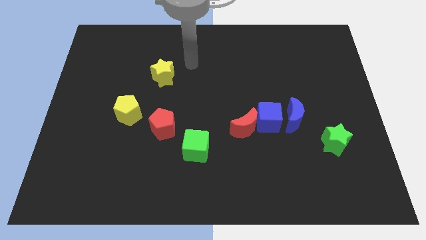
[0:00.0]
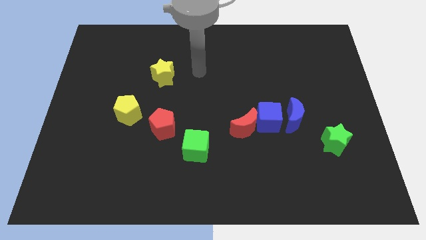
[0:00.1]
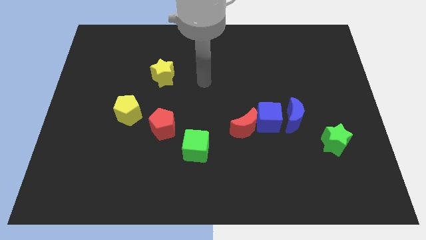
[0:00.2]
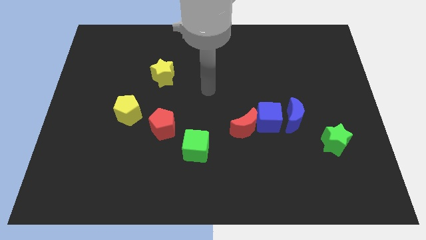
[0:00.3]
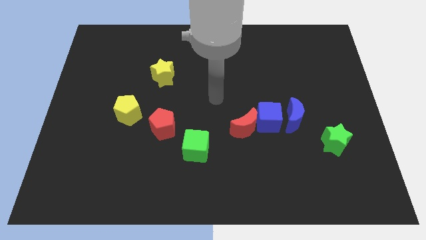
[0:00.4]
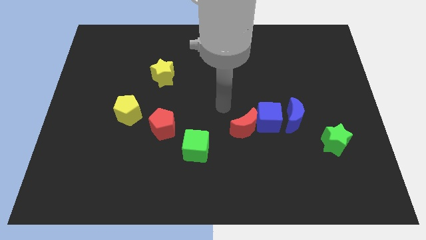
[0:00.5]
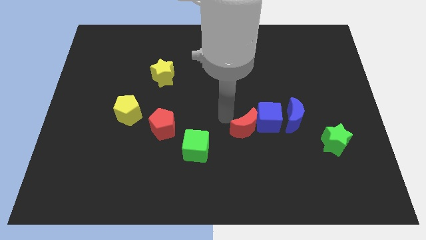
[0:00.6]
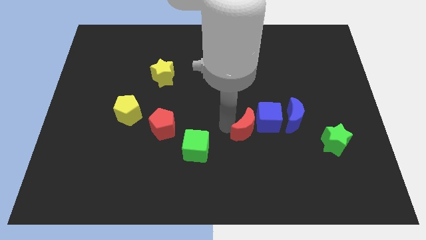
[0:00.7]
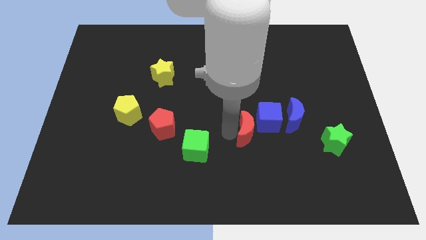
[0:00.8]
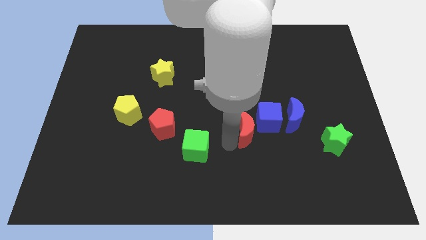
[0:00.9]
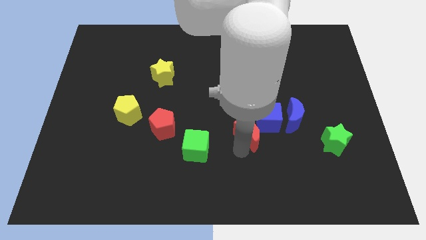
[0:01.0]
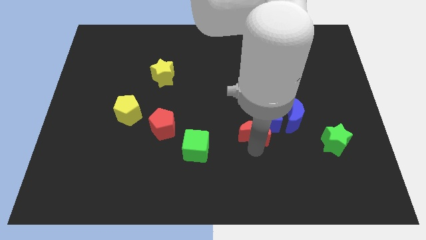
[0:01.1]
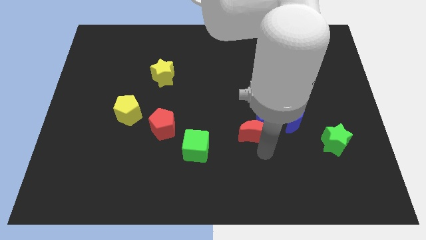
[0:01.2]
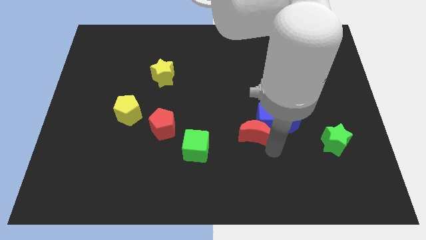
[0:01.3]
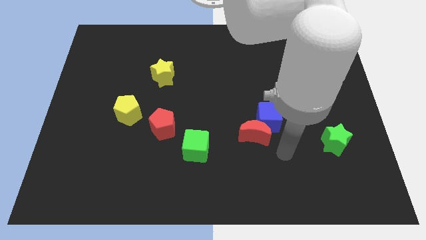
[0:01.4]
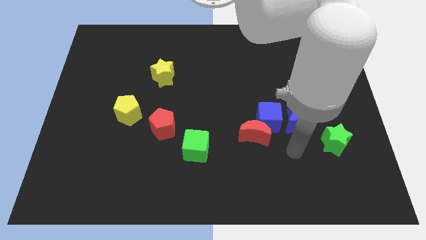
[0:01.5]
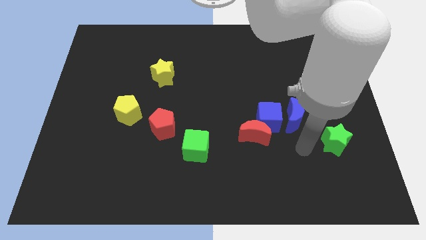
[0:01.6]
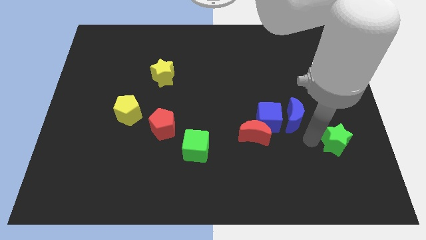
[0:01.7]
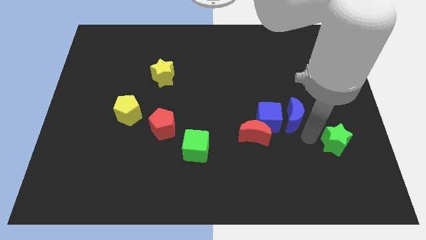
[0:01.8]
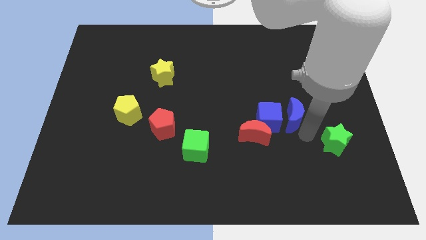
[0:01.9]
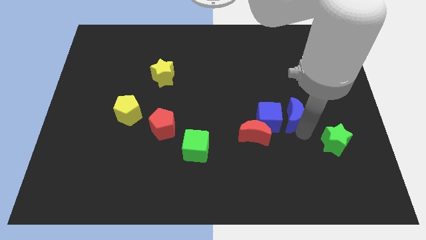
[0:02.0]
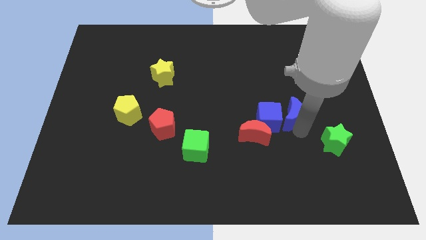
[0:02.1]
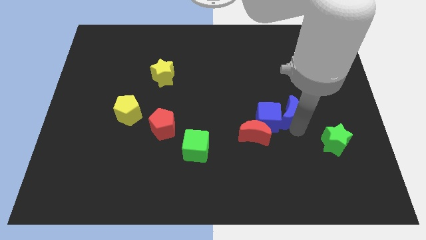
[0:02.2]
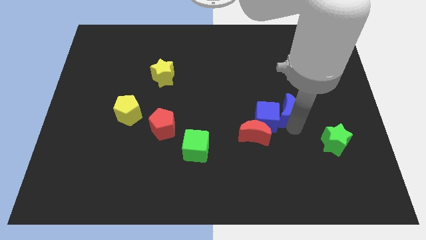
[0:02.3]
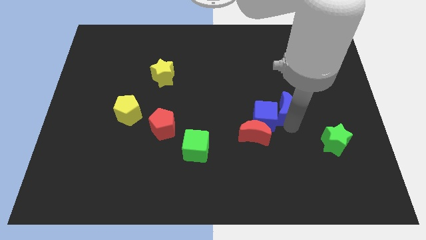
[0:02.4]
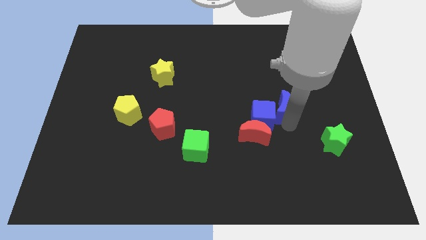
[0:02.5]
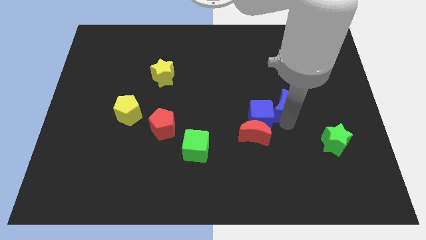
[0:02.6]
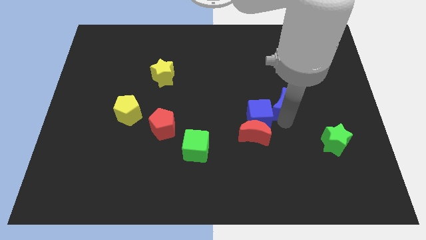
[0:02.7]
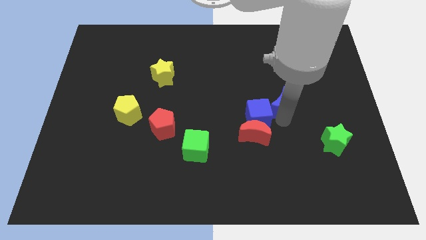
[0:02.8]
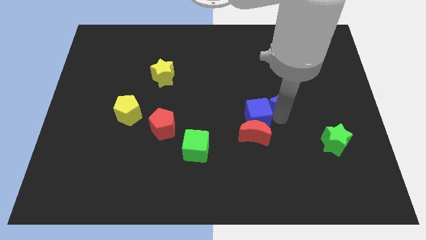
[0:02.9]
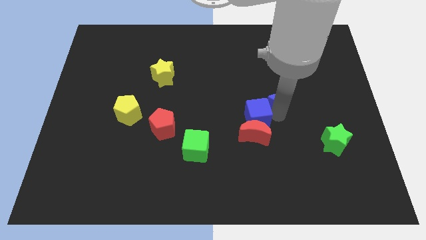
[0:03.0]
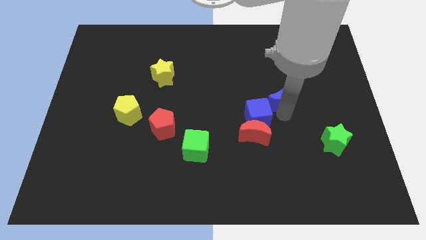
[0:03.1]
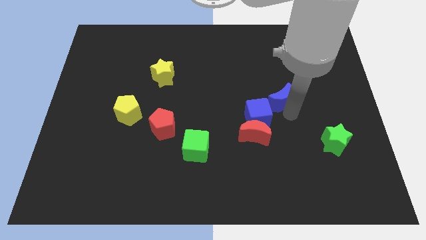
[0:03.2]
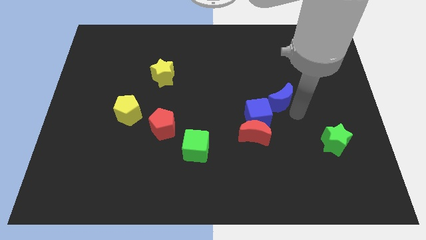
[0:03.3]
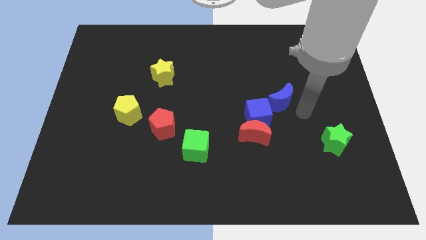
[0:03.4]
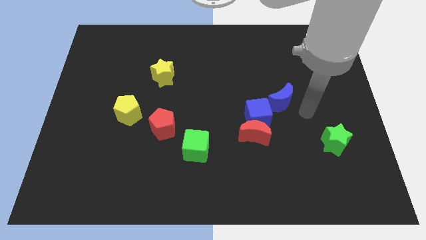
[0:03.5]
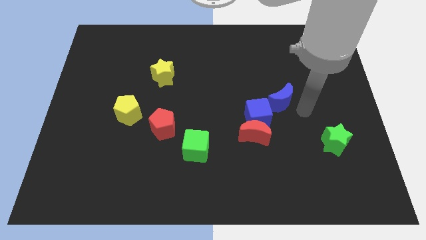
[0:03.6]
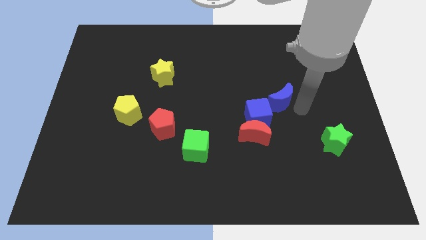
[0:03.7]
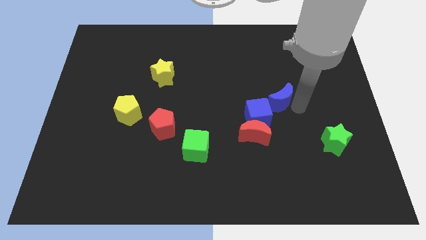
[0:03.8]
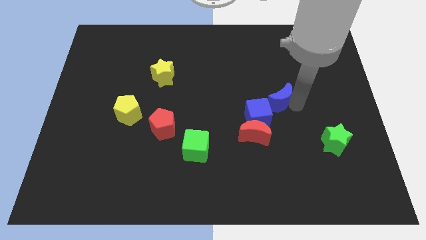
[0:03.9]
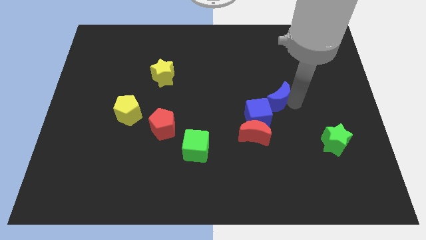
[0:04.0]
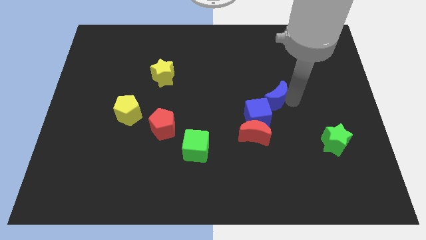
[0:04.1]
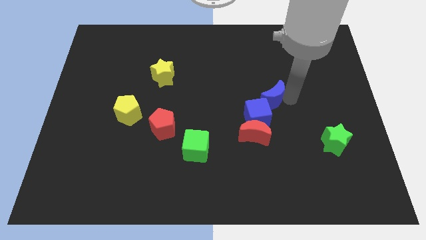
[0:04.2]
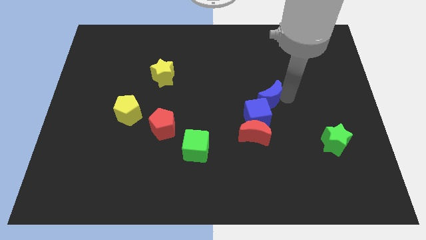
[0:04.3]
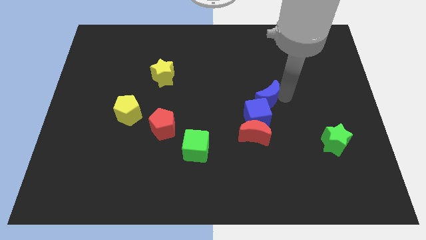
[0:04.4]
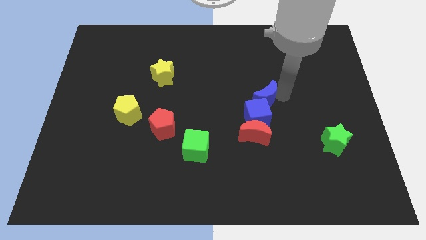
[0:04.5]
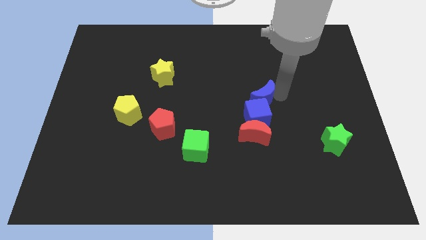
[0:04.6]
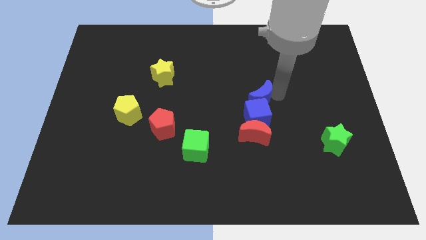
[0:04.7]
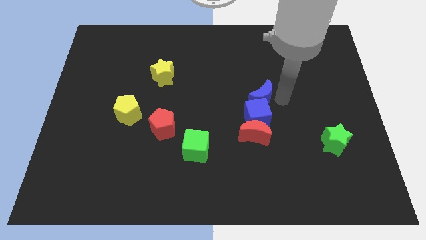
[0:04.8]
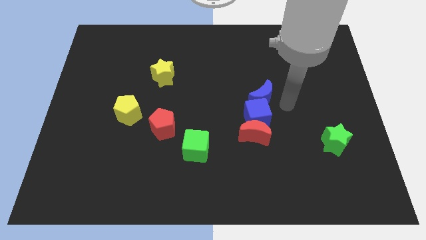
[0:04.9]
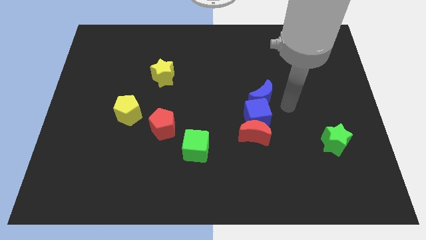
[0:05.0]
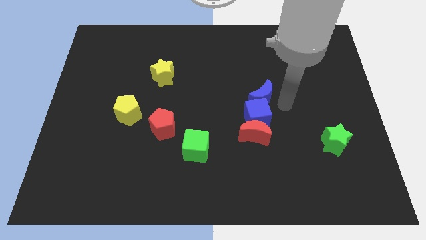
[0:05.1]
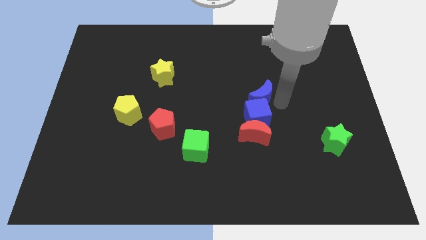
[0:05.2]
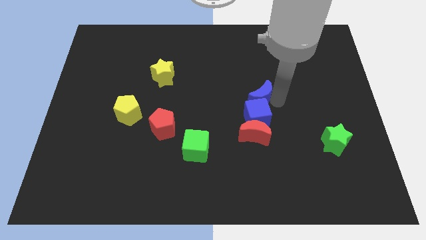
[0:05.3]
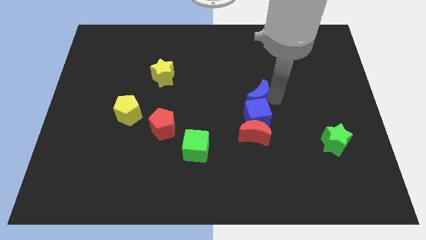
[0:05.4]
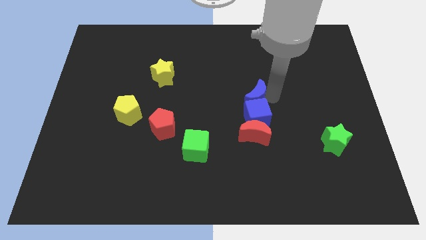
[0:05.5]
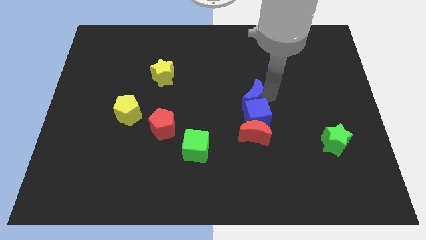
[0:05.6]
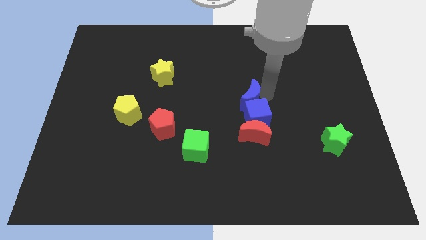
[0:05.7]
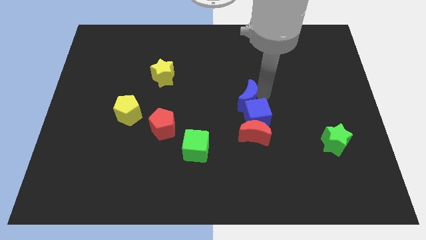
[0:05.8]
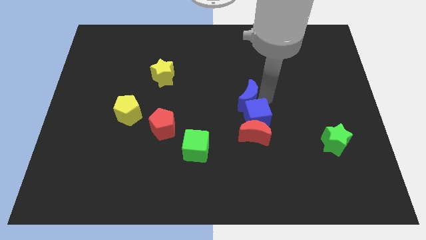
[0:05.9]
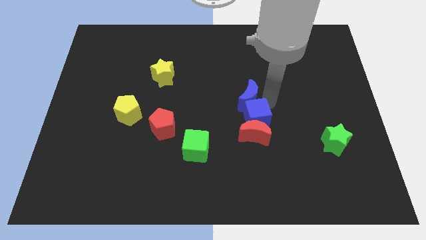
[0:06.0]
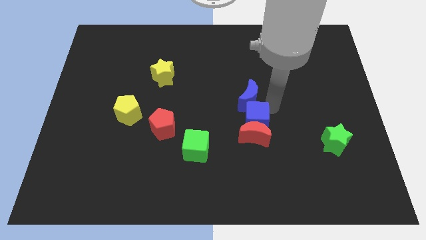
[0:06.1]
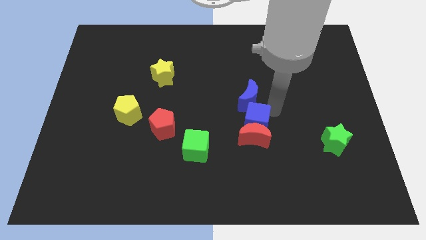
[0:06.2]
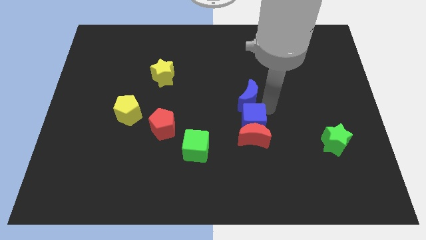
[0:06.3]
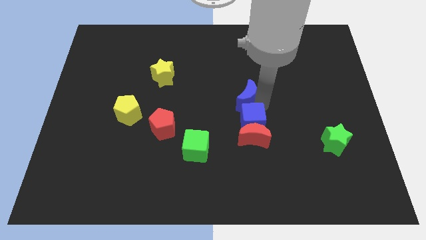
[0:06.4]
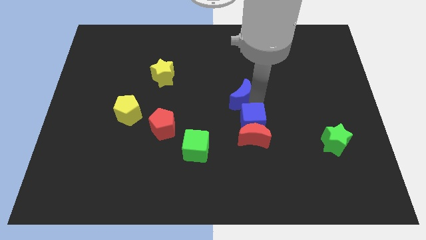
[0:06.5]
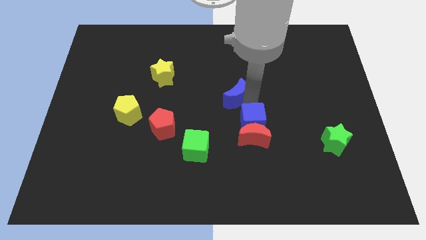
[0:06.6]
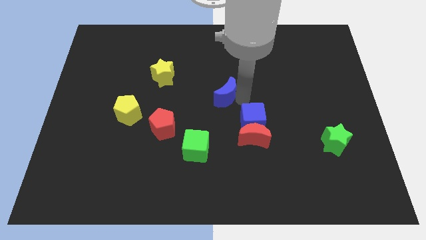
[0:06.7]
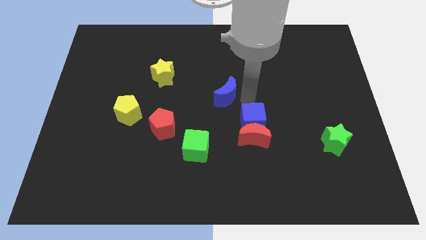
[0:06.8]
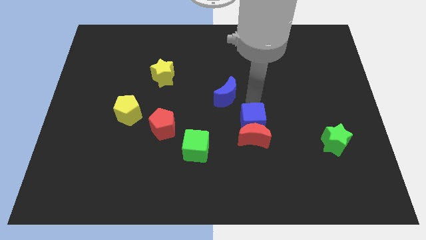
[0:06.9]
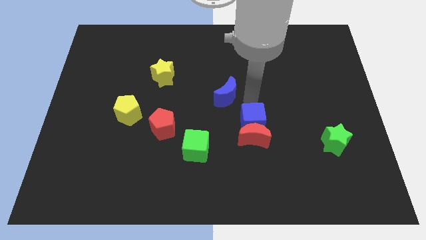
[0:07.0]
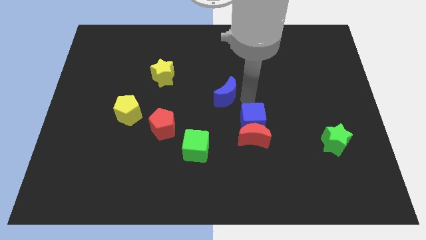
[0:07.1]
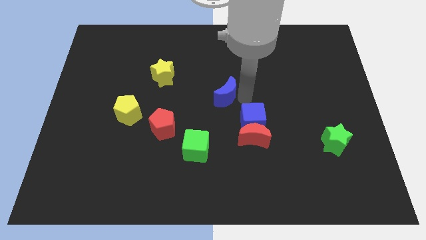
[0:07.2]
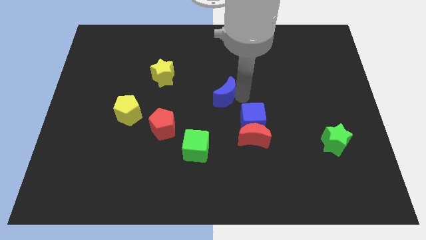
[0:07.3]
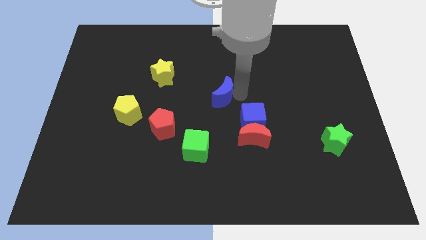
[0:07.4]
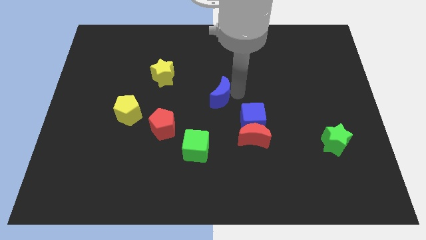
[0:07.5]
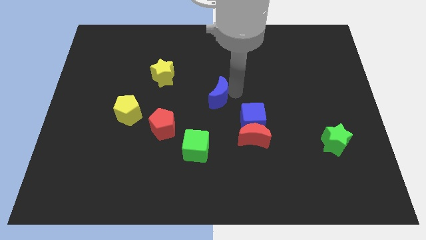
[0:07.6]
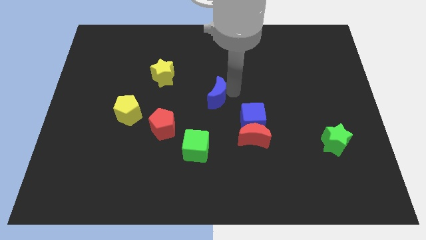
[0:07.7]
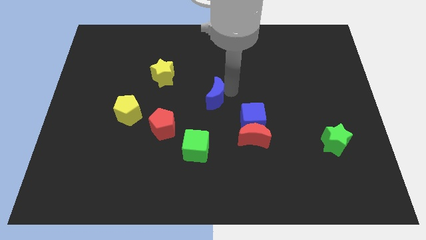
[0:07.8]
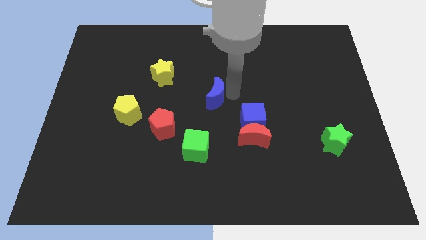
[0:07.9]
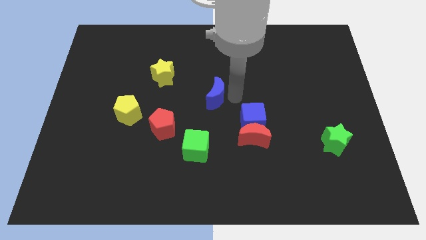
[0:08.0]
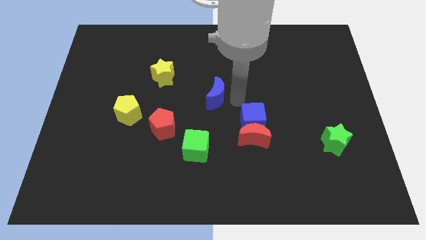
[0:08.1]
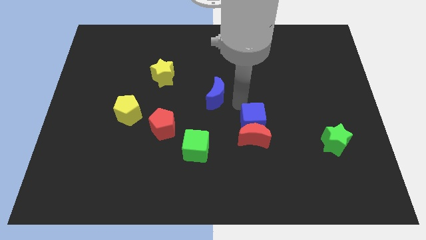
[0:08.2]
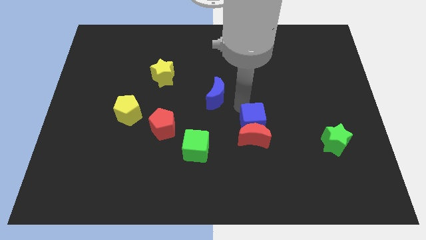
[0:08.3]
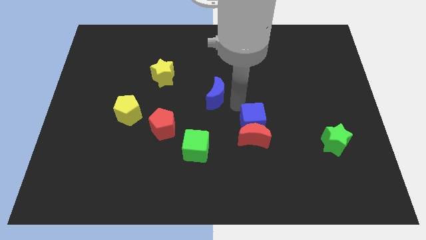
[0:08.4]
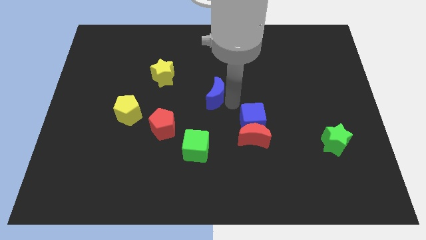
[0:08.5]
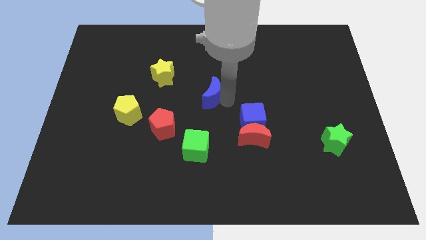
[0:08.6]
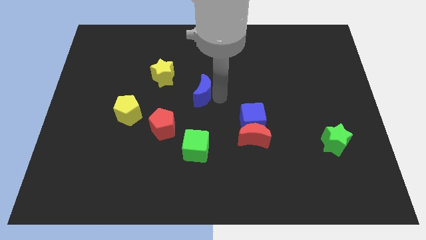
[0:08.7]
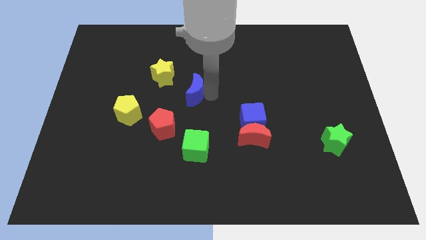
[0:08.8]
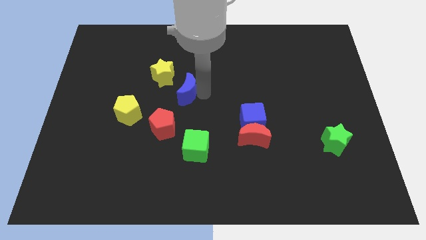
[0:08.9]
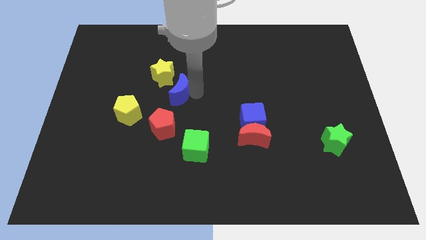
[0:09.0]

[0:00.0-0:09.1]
slide the blue moon to the top of the red pentagon
